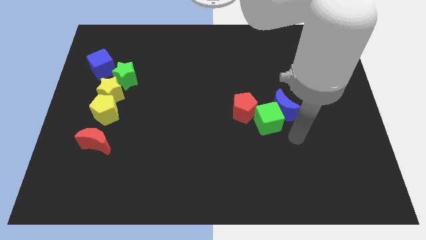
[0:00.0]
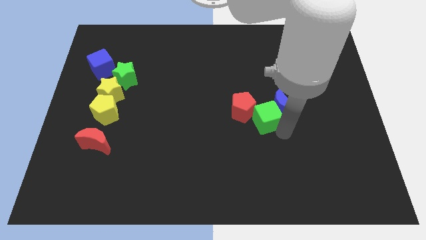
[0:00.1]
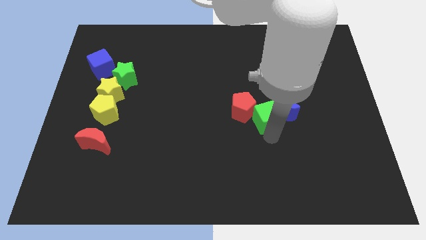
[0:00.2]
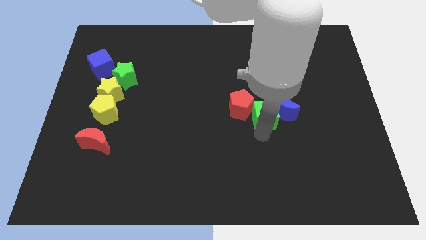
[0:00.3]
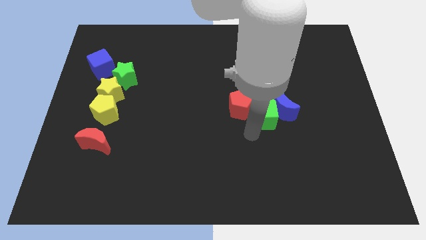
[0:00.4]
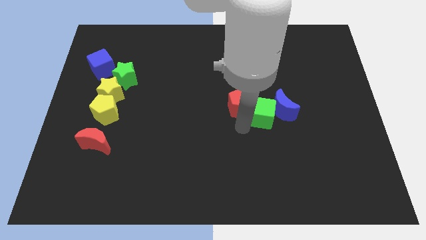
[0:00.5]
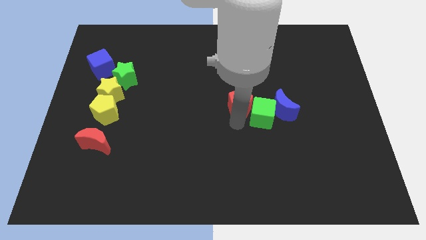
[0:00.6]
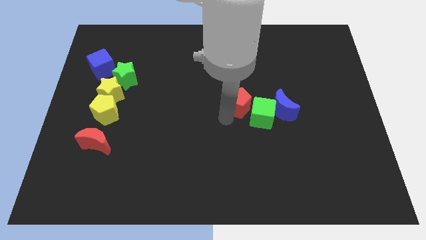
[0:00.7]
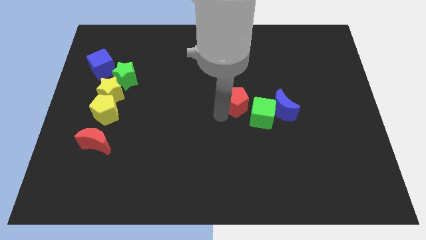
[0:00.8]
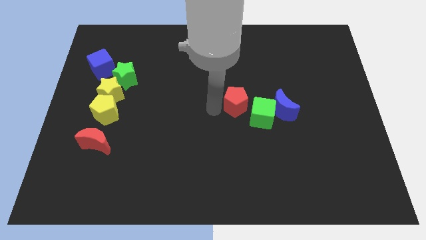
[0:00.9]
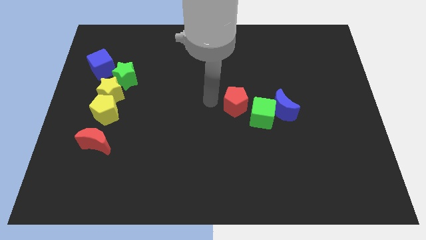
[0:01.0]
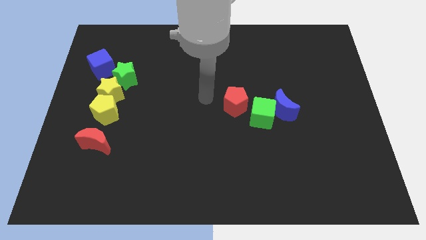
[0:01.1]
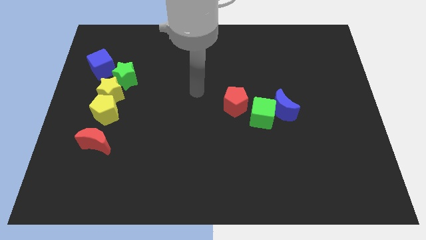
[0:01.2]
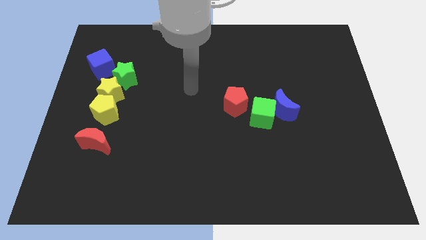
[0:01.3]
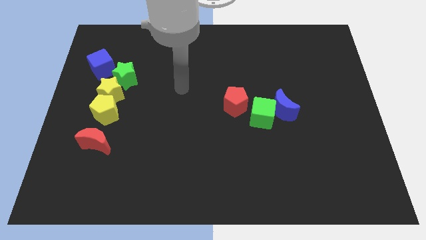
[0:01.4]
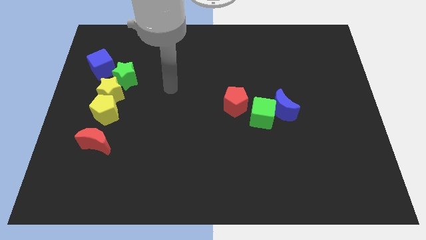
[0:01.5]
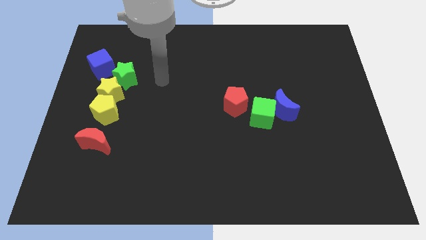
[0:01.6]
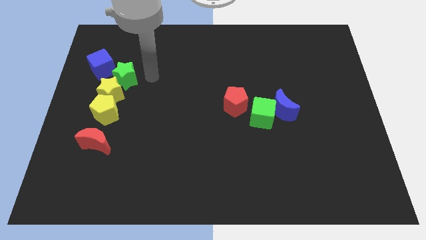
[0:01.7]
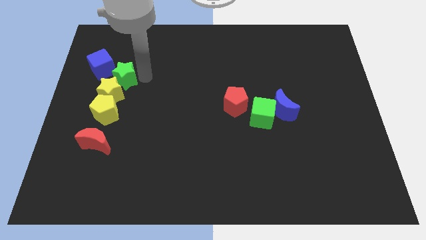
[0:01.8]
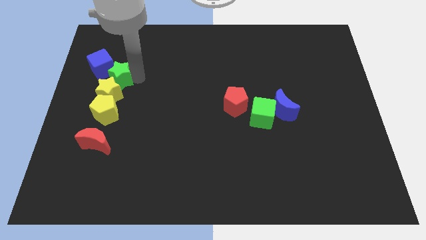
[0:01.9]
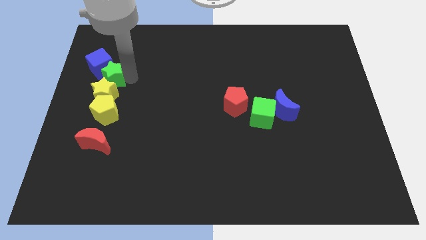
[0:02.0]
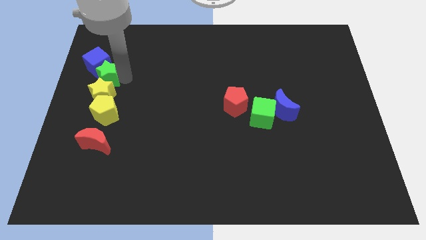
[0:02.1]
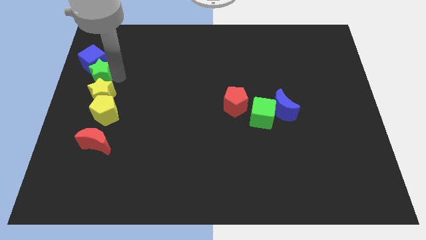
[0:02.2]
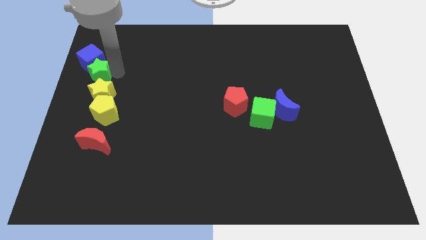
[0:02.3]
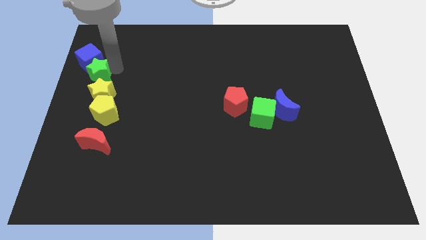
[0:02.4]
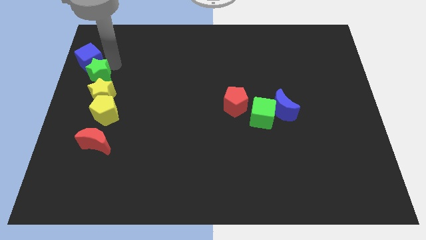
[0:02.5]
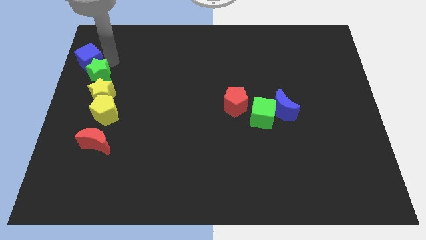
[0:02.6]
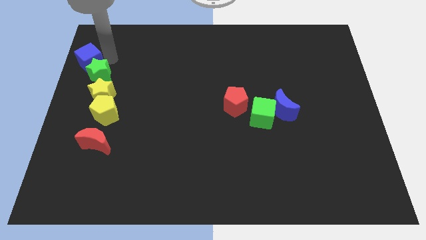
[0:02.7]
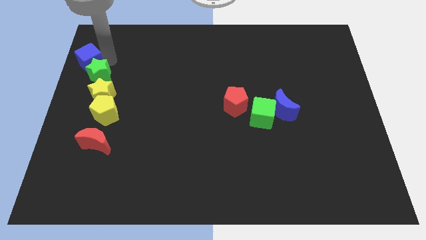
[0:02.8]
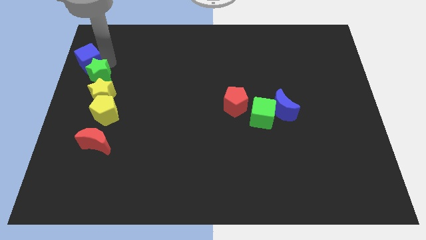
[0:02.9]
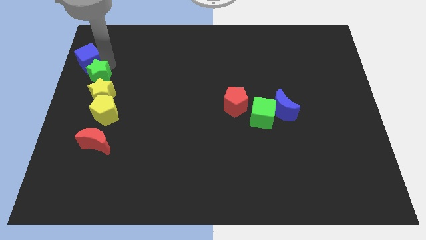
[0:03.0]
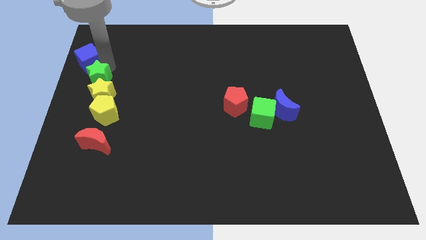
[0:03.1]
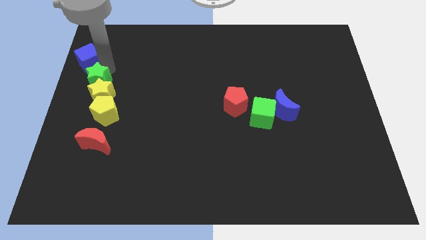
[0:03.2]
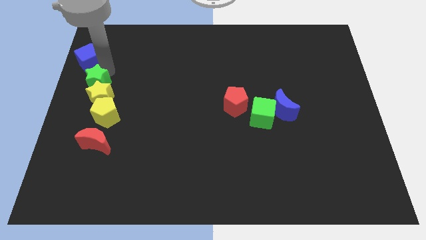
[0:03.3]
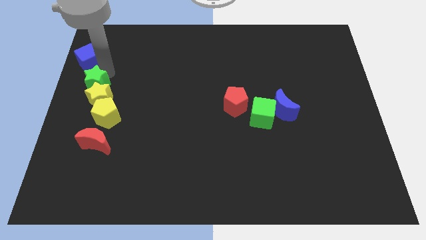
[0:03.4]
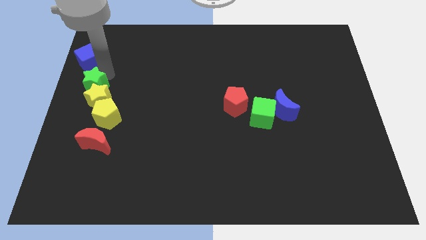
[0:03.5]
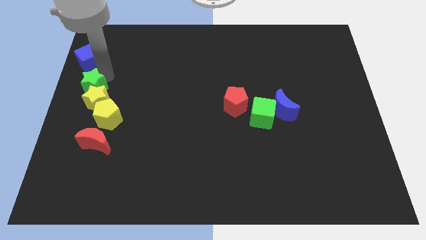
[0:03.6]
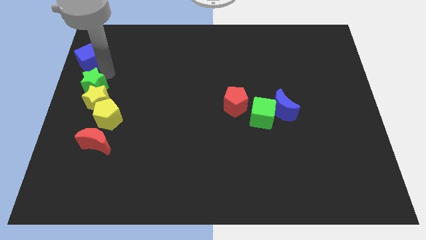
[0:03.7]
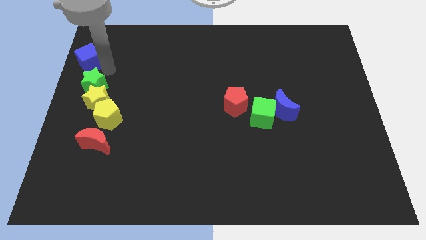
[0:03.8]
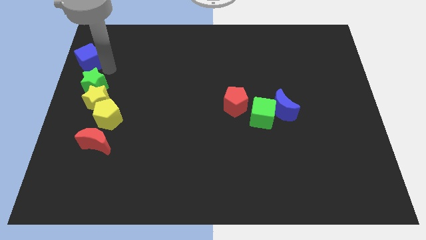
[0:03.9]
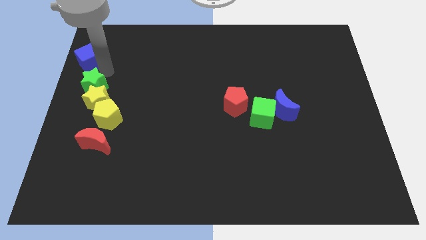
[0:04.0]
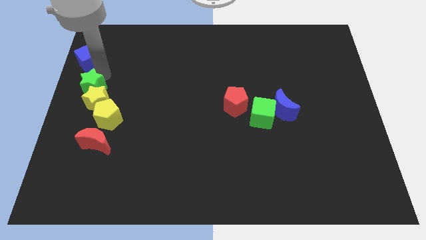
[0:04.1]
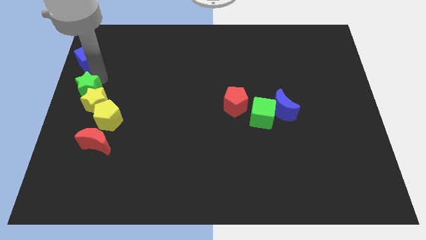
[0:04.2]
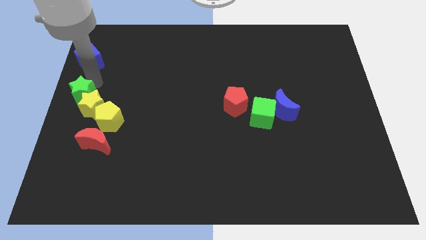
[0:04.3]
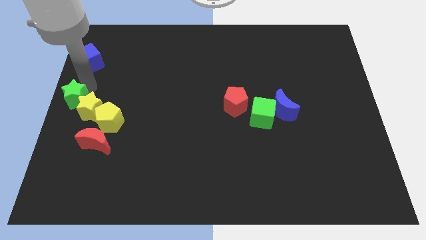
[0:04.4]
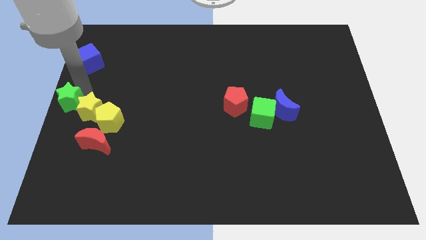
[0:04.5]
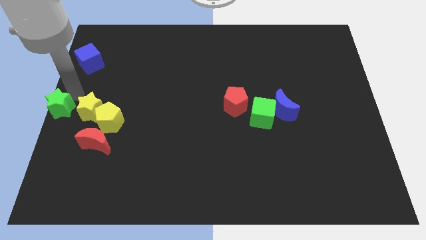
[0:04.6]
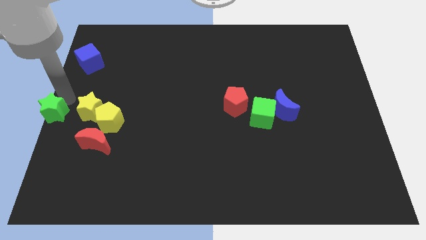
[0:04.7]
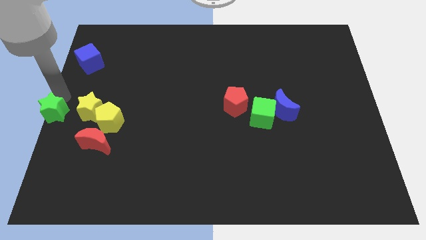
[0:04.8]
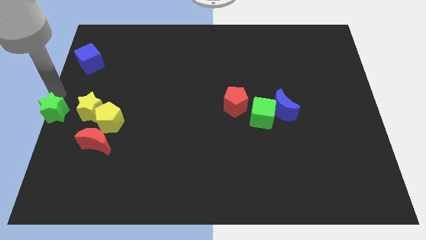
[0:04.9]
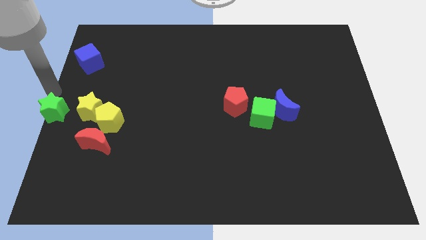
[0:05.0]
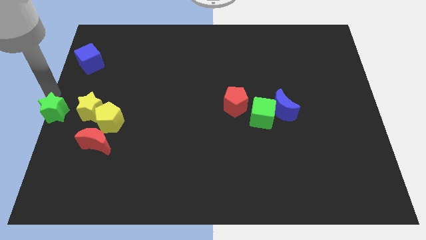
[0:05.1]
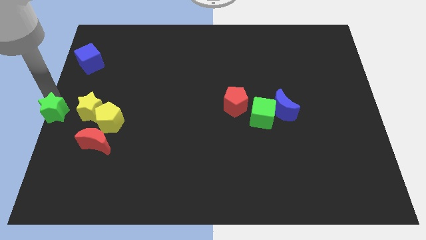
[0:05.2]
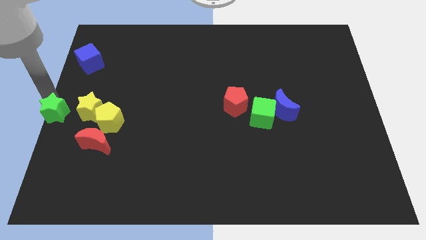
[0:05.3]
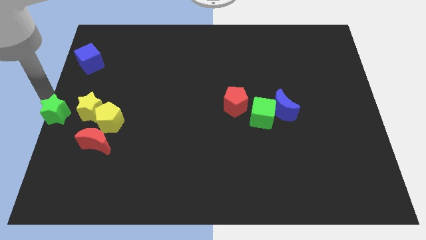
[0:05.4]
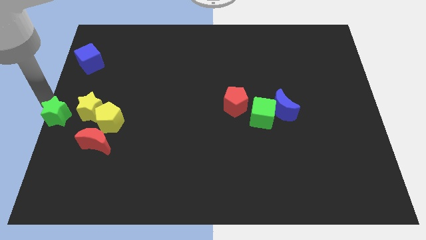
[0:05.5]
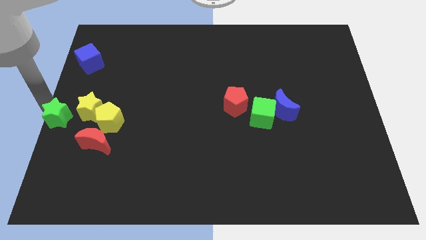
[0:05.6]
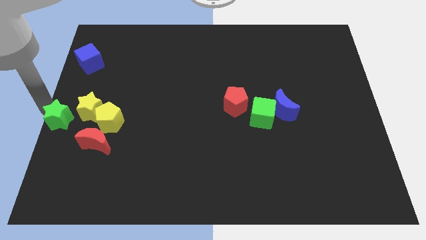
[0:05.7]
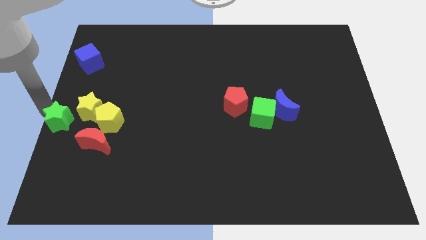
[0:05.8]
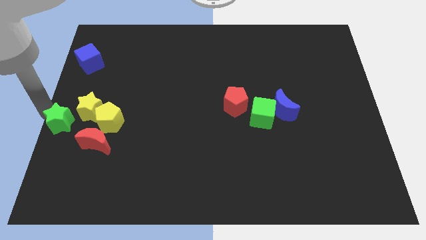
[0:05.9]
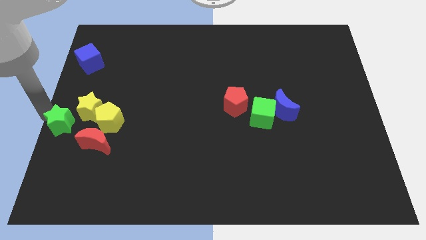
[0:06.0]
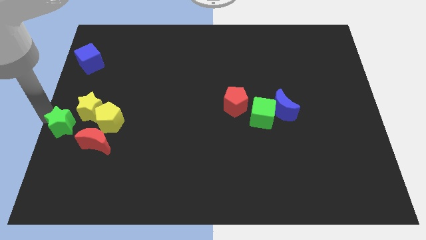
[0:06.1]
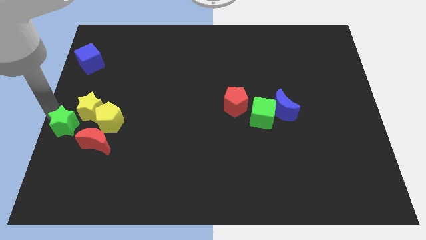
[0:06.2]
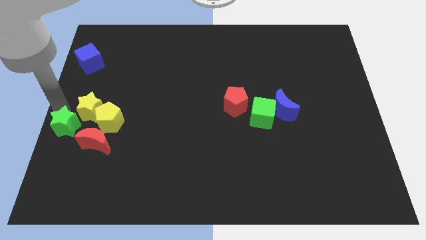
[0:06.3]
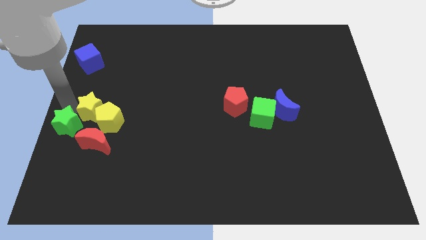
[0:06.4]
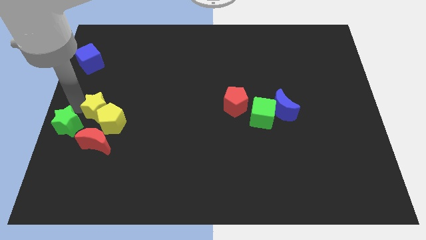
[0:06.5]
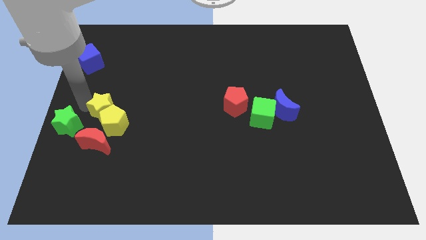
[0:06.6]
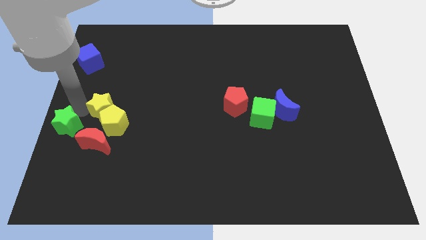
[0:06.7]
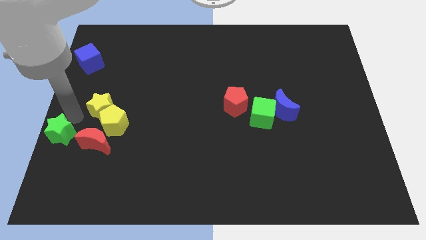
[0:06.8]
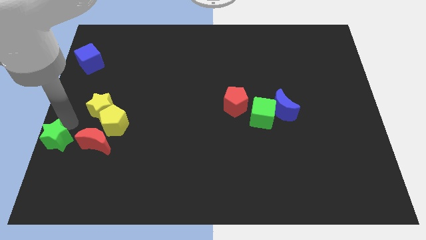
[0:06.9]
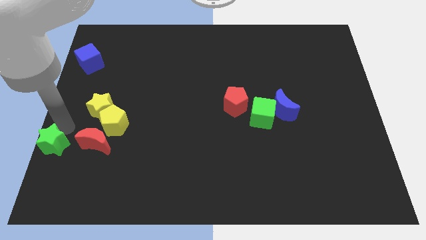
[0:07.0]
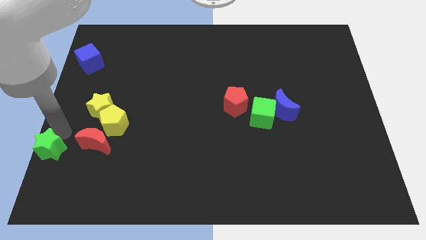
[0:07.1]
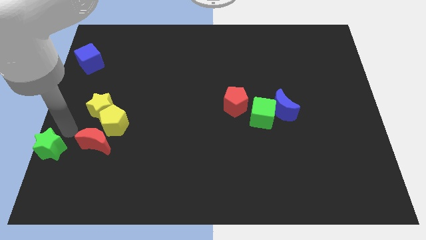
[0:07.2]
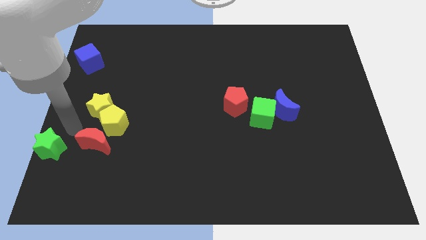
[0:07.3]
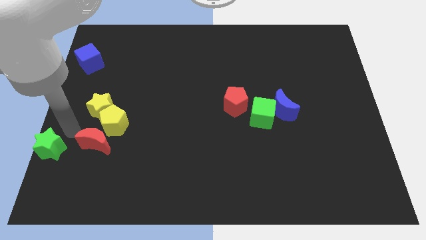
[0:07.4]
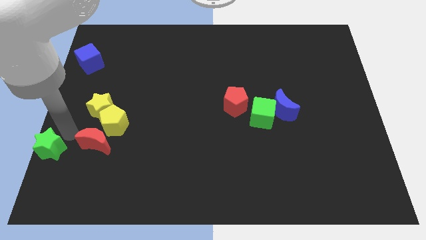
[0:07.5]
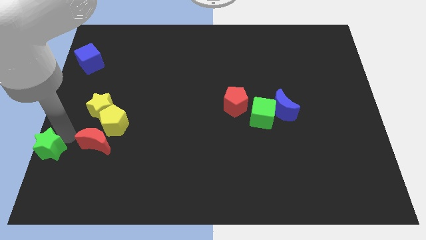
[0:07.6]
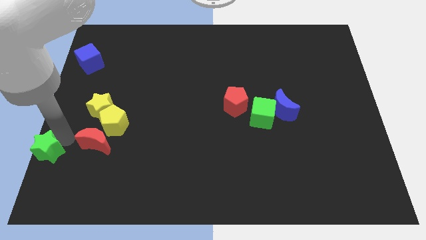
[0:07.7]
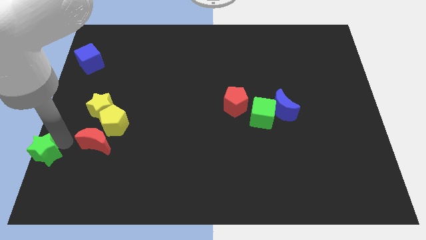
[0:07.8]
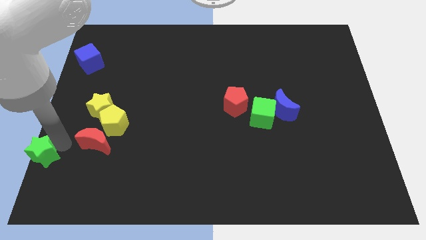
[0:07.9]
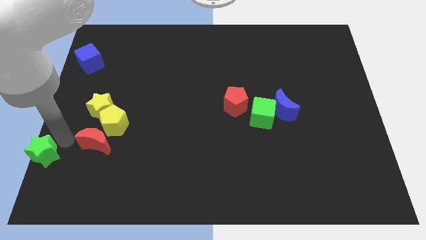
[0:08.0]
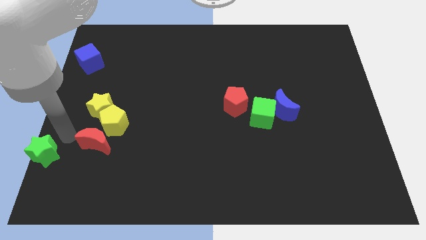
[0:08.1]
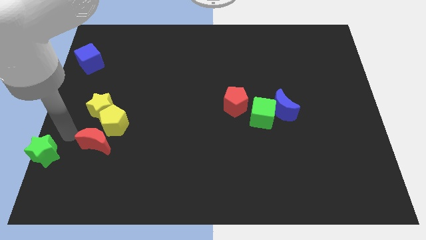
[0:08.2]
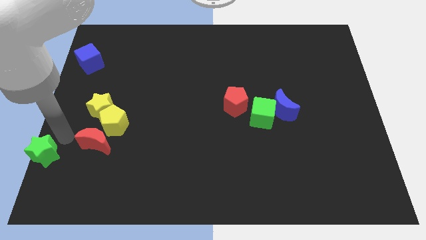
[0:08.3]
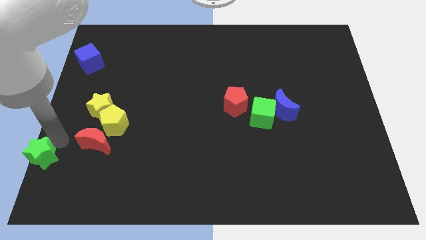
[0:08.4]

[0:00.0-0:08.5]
push the green star to the bottom left of the board
